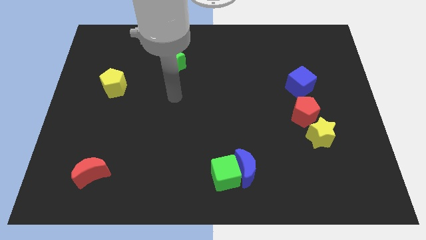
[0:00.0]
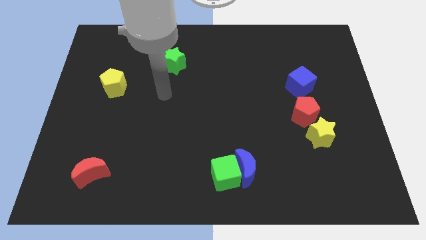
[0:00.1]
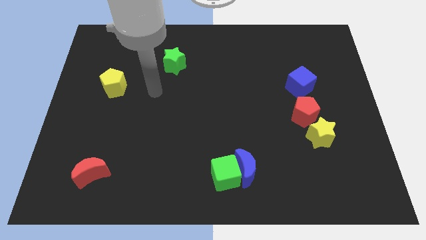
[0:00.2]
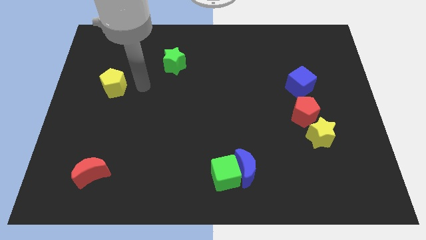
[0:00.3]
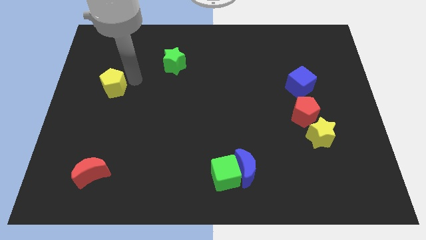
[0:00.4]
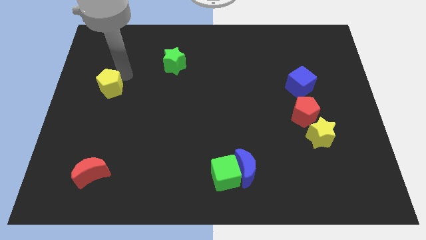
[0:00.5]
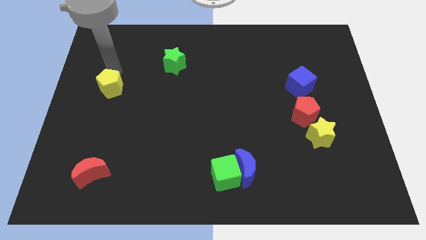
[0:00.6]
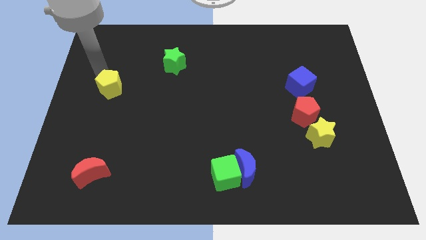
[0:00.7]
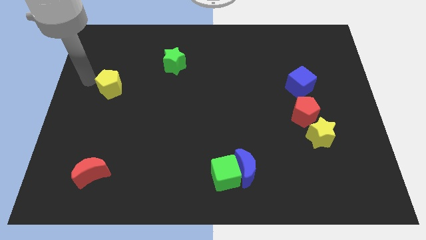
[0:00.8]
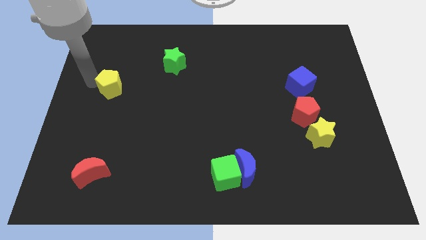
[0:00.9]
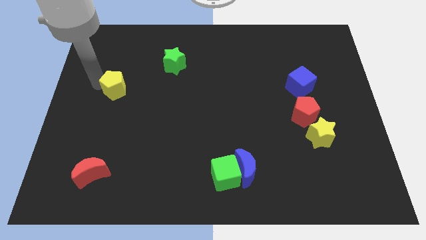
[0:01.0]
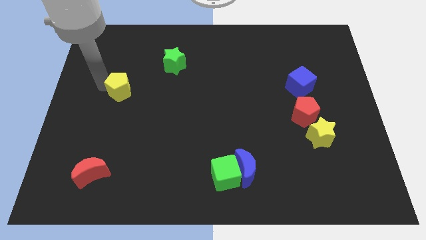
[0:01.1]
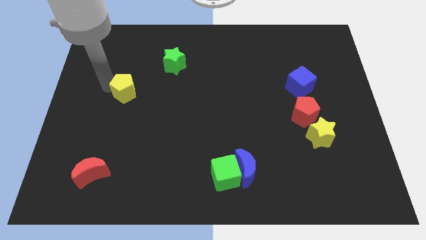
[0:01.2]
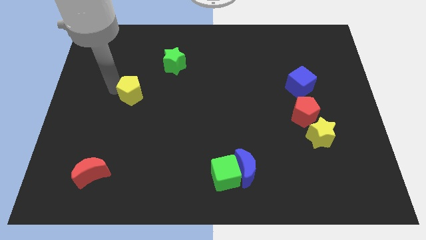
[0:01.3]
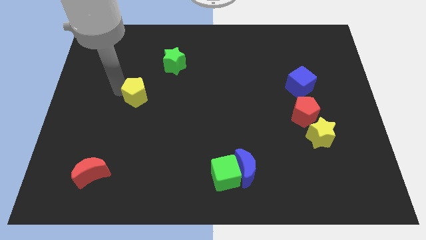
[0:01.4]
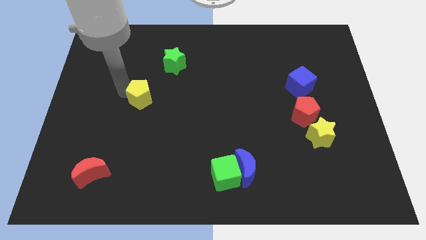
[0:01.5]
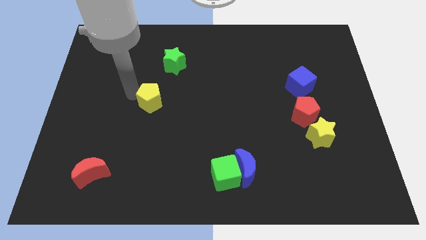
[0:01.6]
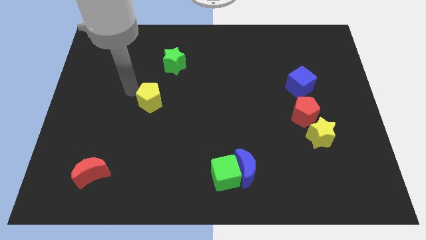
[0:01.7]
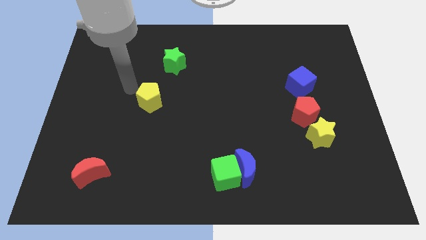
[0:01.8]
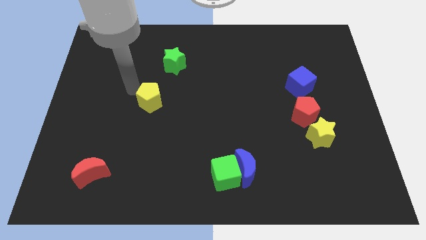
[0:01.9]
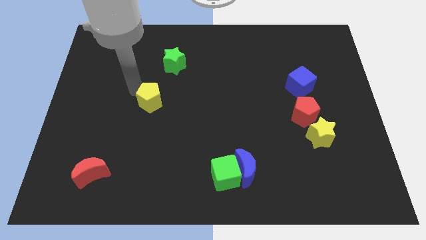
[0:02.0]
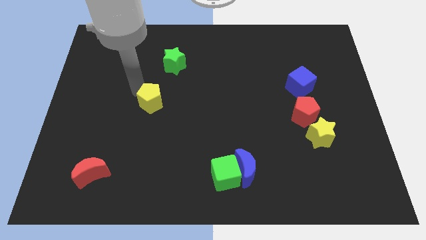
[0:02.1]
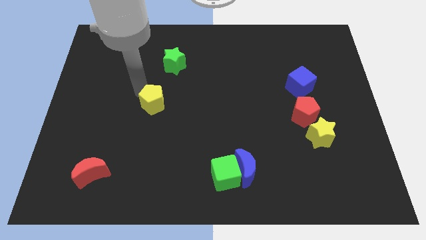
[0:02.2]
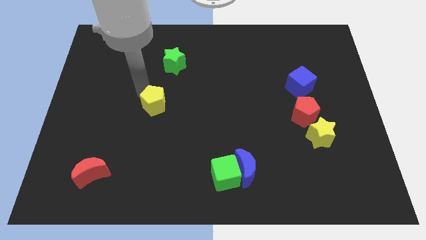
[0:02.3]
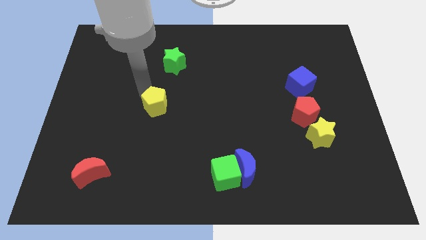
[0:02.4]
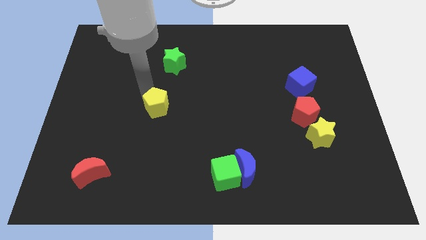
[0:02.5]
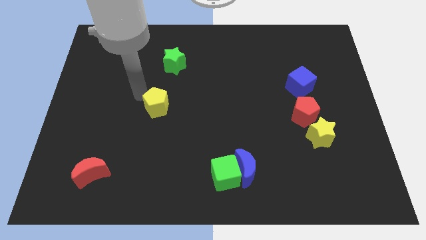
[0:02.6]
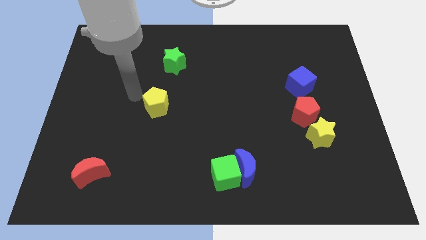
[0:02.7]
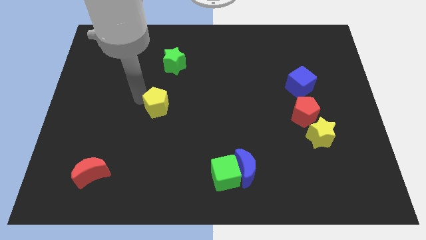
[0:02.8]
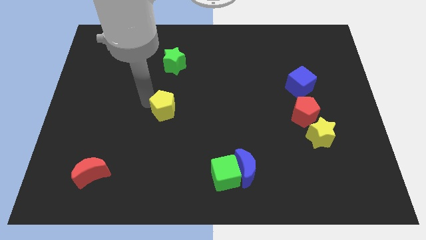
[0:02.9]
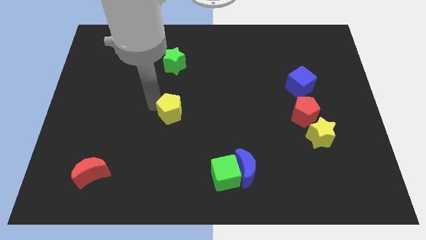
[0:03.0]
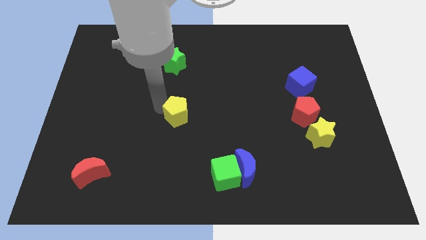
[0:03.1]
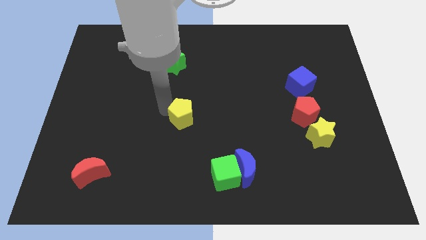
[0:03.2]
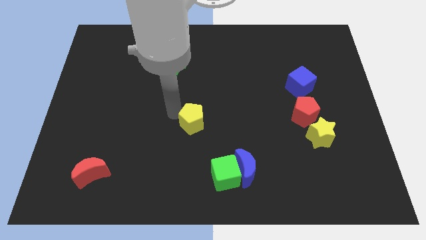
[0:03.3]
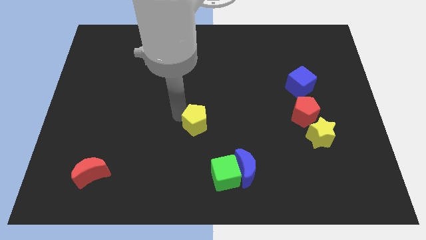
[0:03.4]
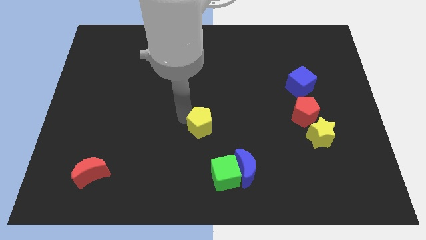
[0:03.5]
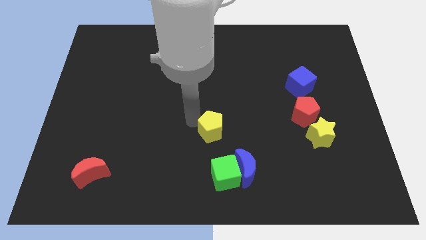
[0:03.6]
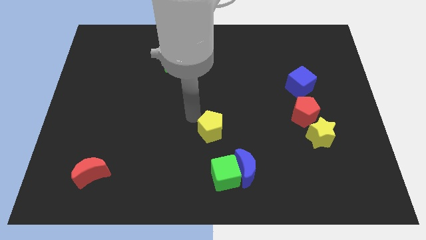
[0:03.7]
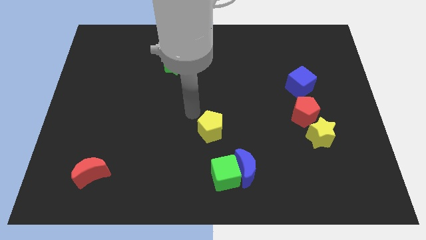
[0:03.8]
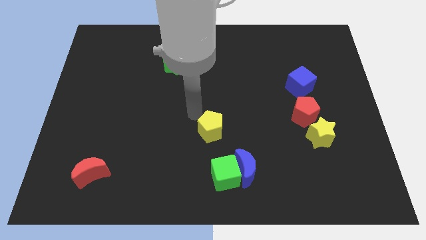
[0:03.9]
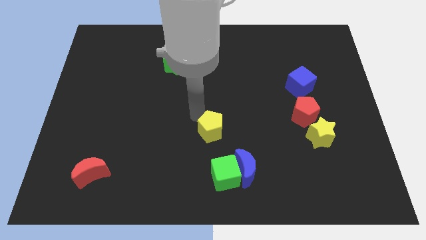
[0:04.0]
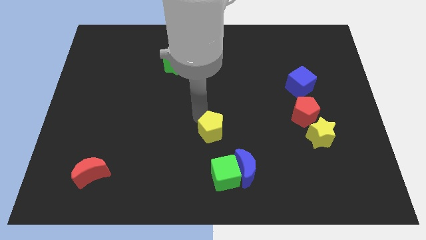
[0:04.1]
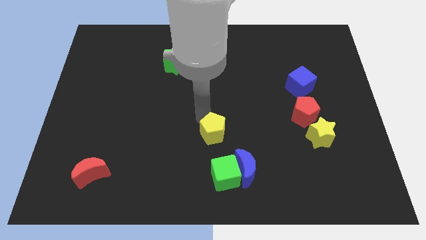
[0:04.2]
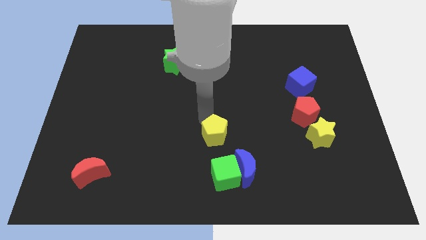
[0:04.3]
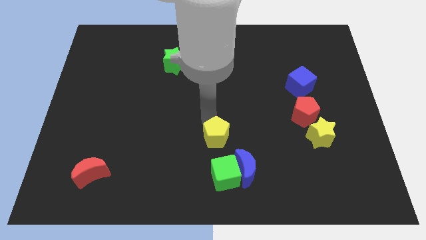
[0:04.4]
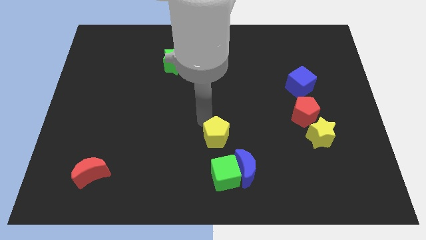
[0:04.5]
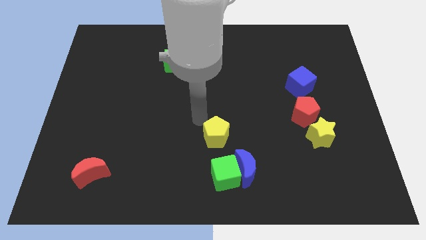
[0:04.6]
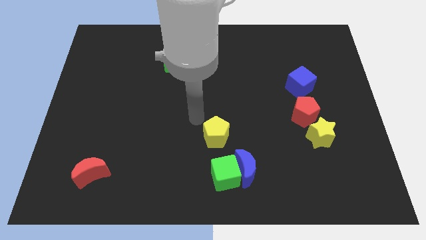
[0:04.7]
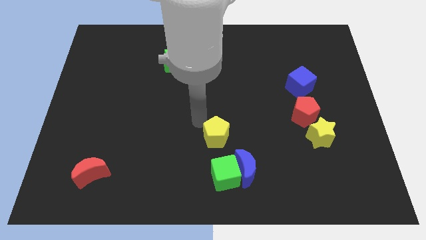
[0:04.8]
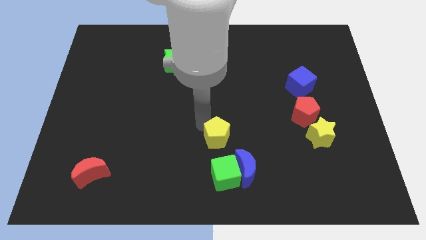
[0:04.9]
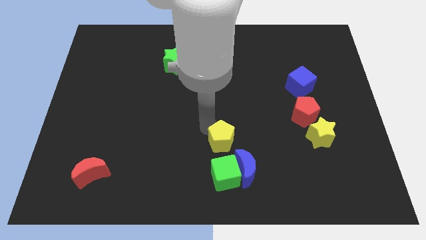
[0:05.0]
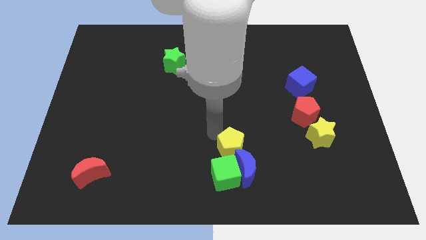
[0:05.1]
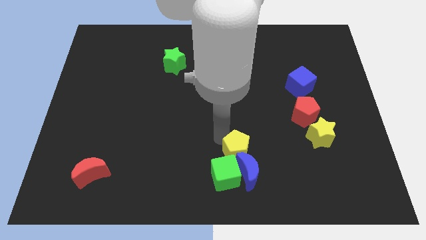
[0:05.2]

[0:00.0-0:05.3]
put the yellow pentagon close to the blue moon

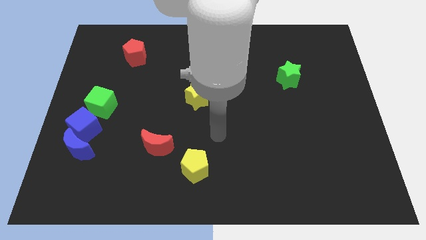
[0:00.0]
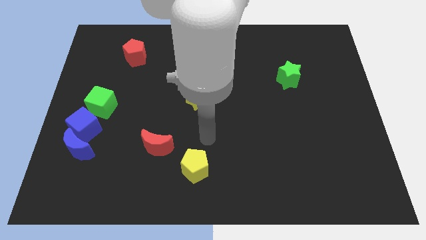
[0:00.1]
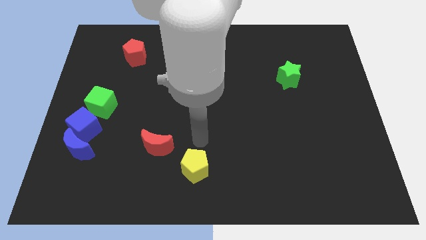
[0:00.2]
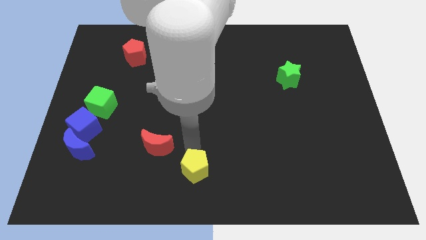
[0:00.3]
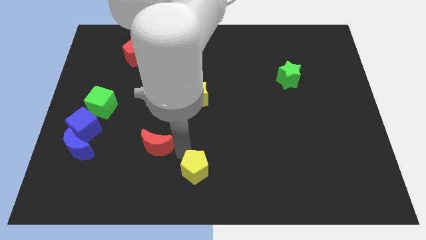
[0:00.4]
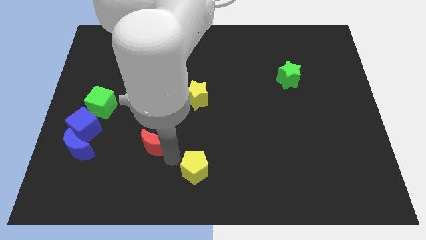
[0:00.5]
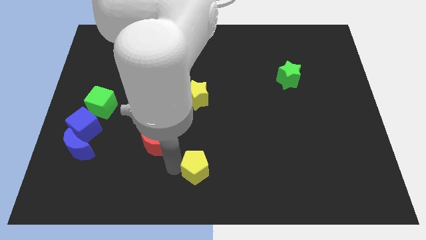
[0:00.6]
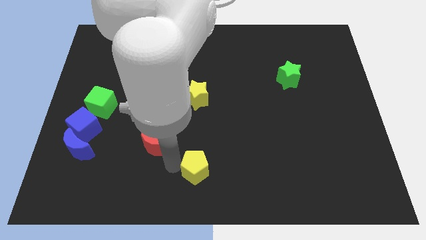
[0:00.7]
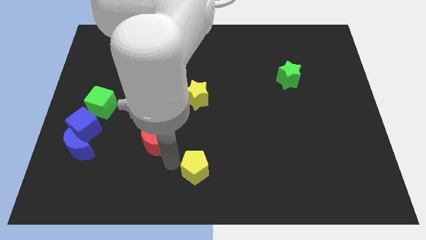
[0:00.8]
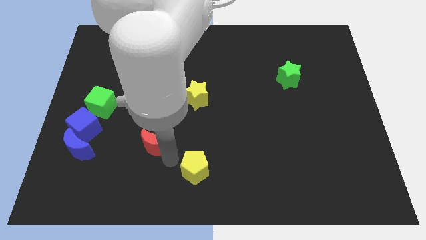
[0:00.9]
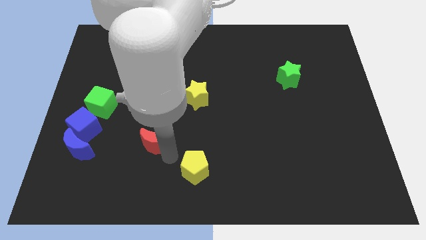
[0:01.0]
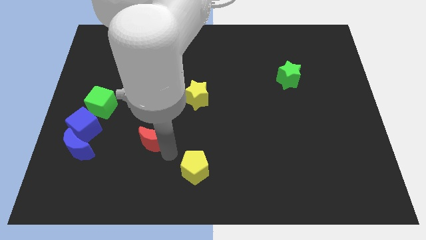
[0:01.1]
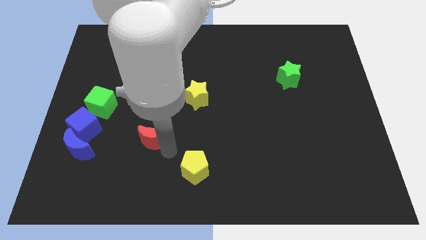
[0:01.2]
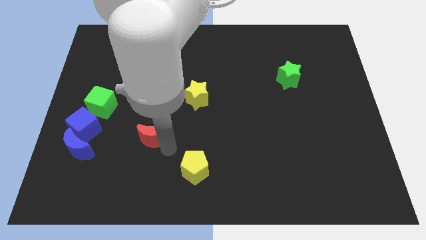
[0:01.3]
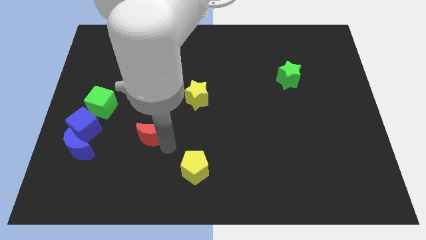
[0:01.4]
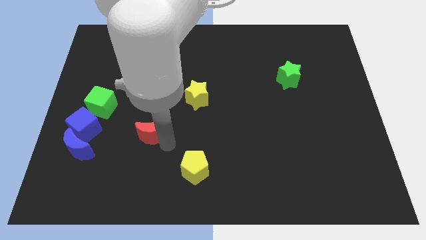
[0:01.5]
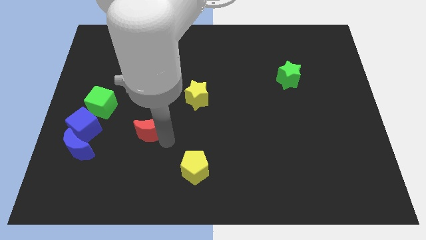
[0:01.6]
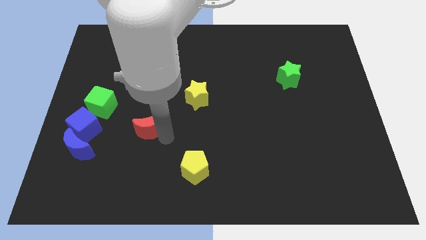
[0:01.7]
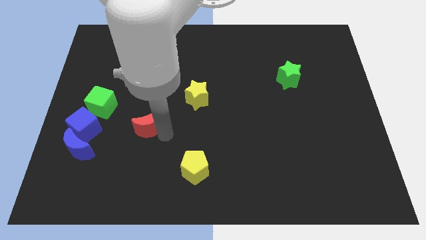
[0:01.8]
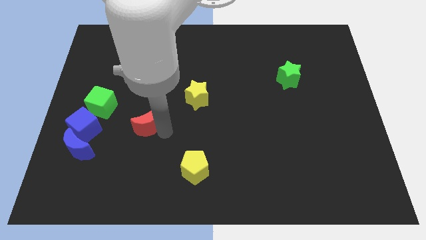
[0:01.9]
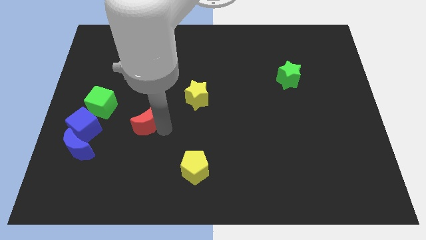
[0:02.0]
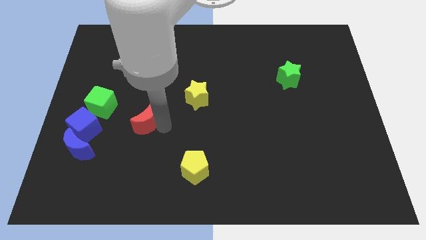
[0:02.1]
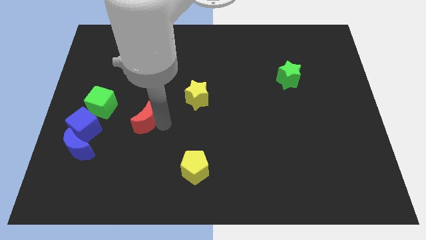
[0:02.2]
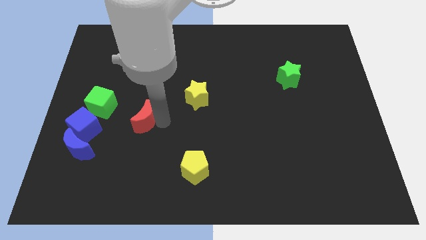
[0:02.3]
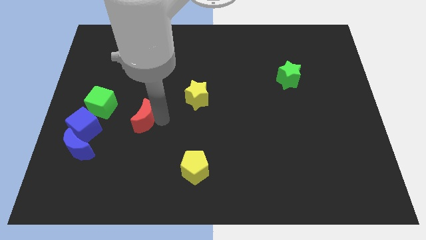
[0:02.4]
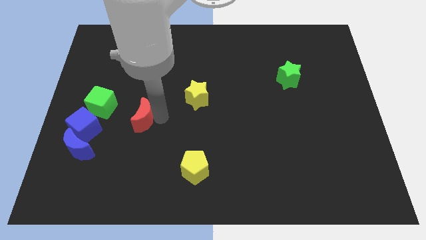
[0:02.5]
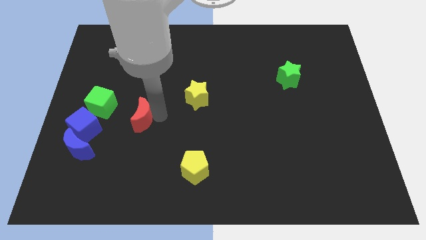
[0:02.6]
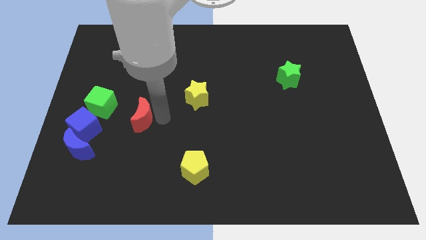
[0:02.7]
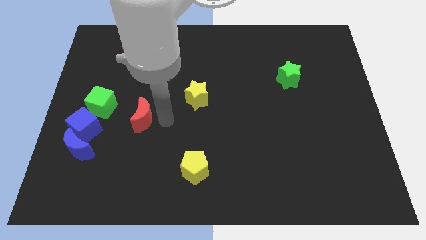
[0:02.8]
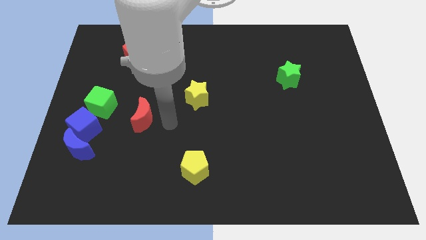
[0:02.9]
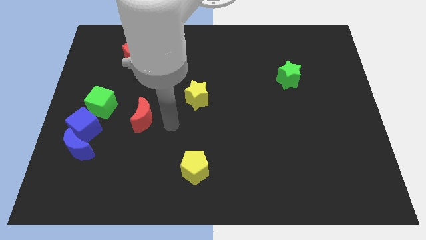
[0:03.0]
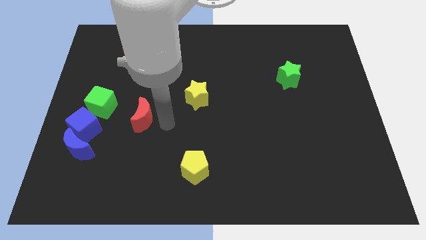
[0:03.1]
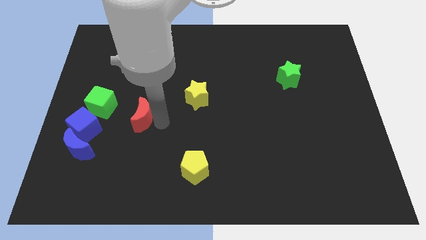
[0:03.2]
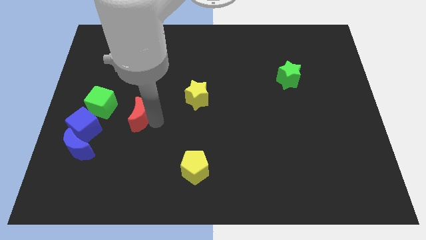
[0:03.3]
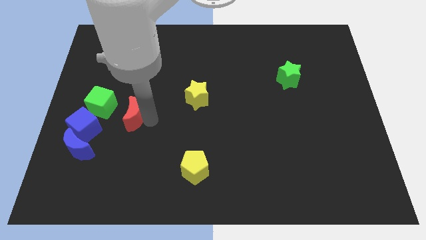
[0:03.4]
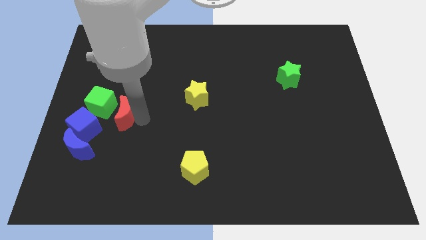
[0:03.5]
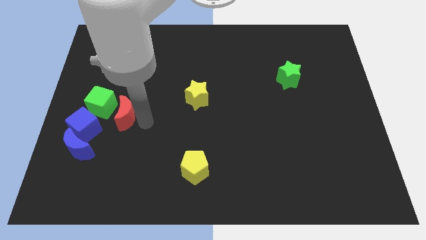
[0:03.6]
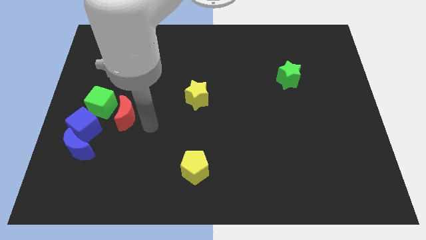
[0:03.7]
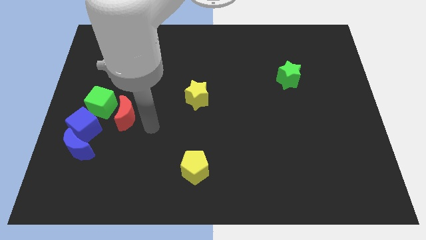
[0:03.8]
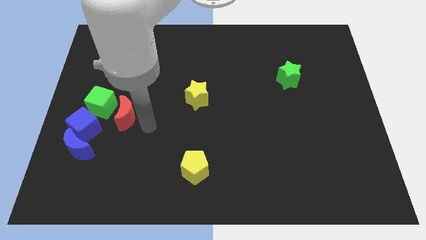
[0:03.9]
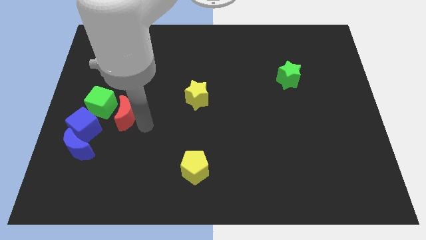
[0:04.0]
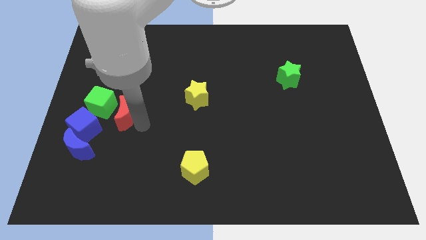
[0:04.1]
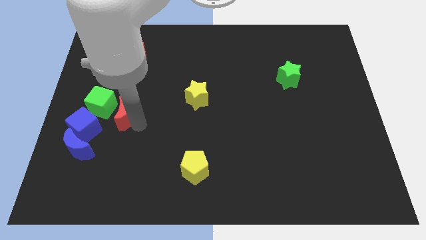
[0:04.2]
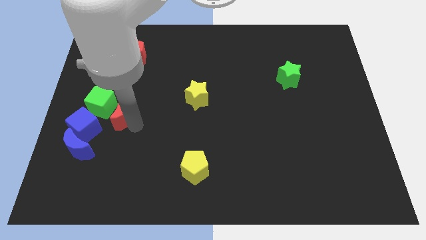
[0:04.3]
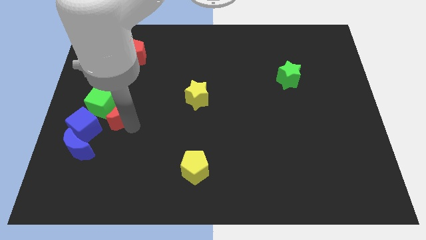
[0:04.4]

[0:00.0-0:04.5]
slide the red moon close to the green cube
